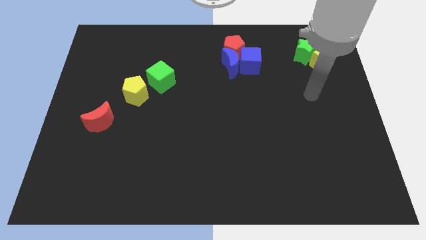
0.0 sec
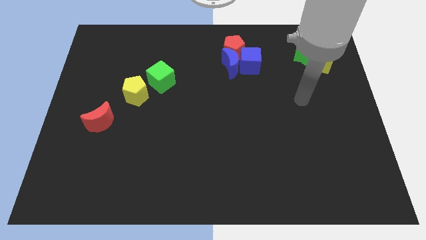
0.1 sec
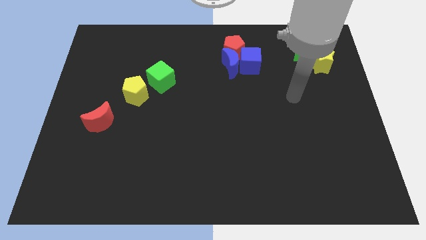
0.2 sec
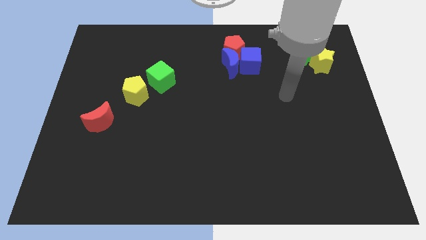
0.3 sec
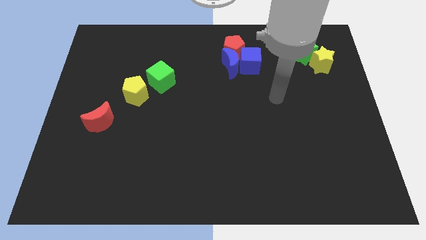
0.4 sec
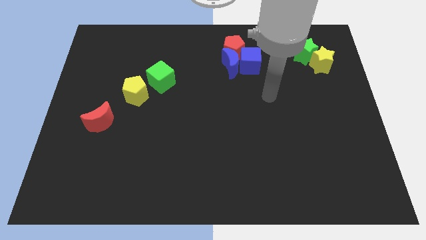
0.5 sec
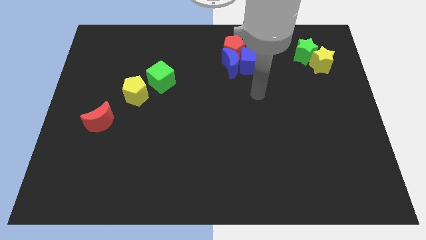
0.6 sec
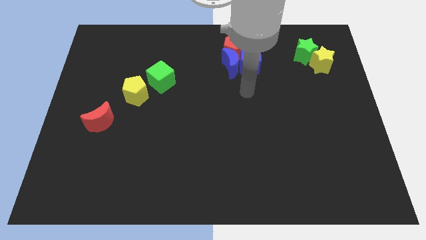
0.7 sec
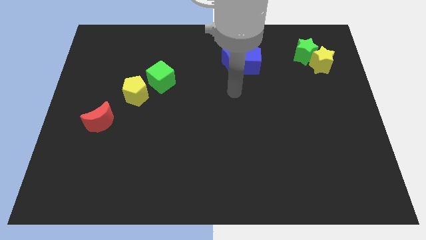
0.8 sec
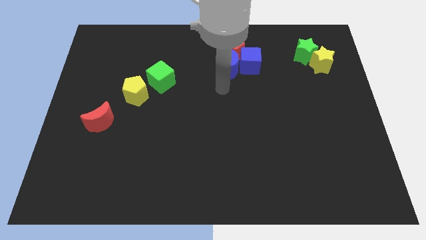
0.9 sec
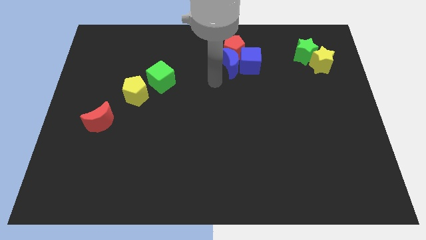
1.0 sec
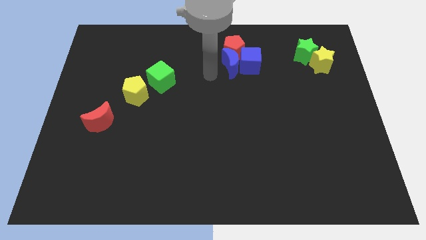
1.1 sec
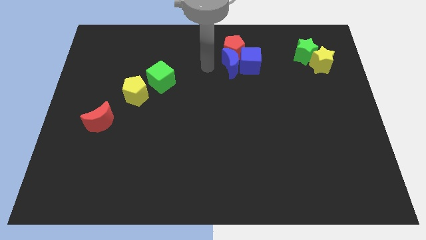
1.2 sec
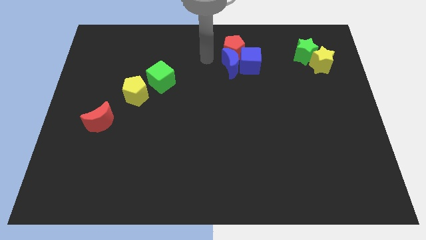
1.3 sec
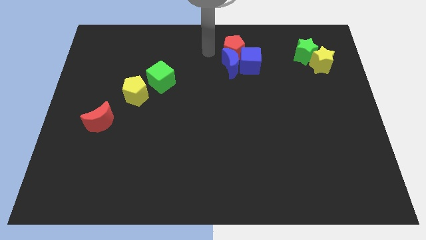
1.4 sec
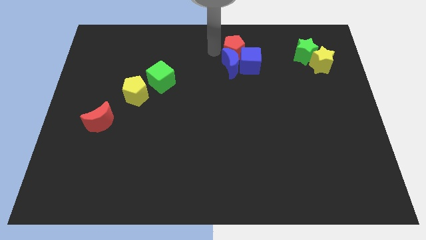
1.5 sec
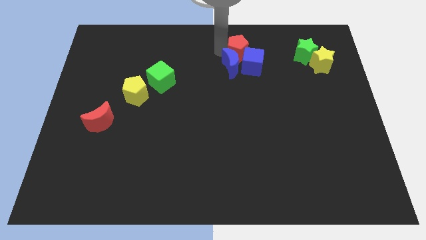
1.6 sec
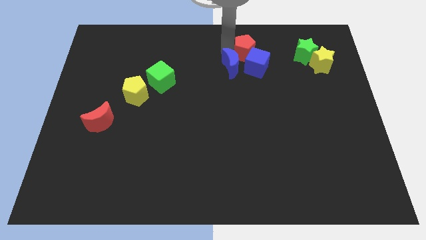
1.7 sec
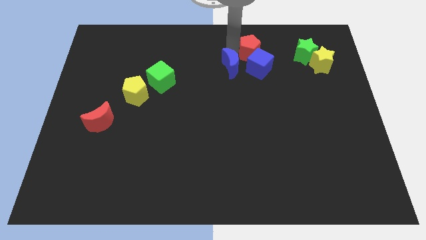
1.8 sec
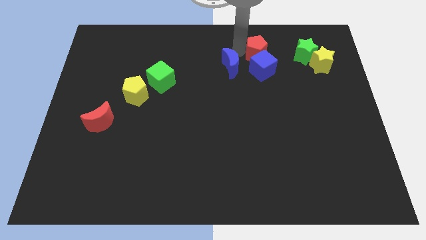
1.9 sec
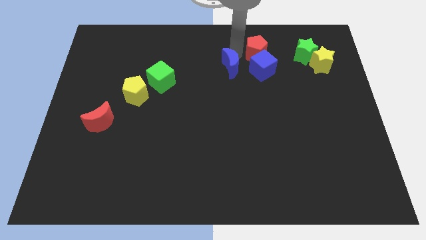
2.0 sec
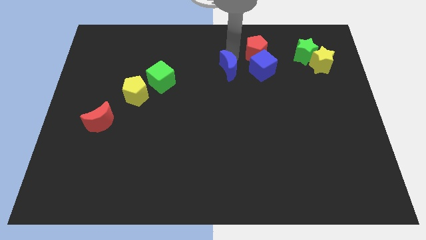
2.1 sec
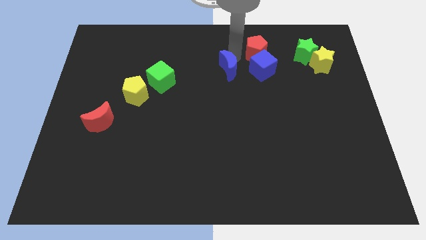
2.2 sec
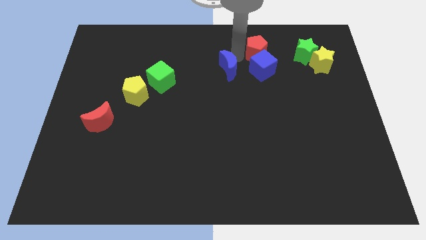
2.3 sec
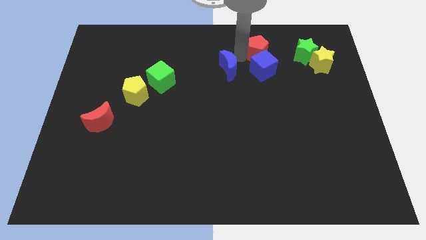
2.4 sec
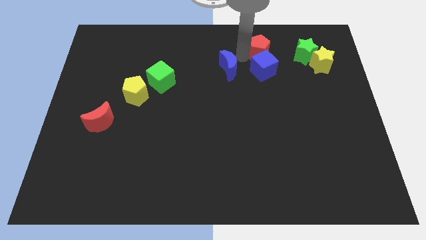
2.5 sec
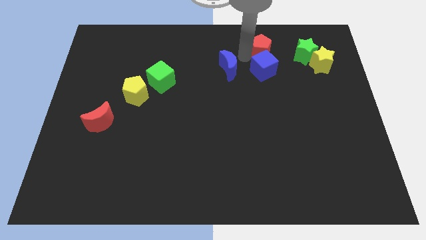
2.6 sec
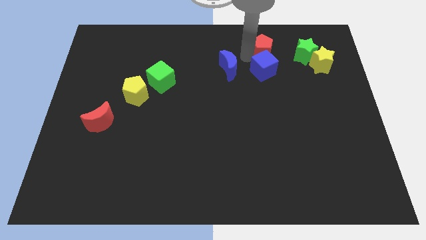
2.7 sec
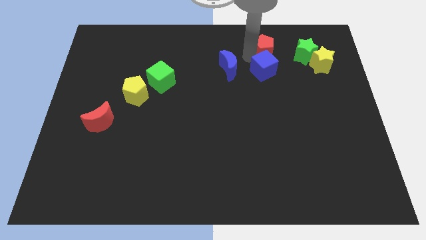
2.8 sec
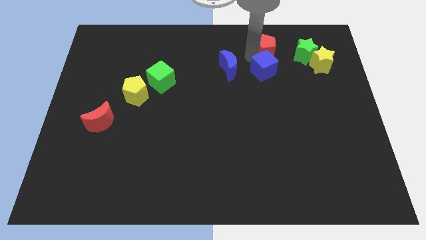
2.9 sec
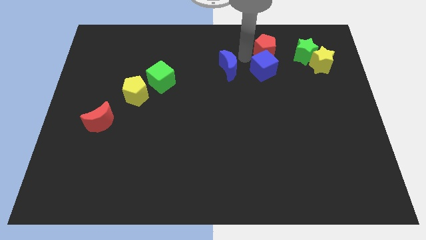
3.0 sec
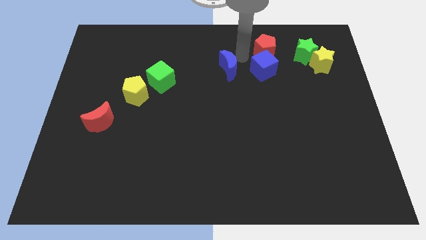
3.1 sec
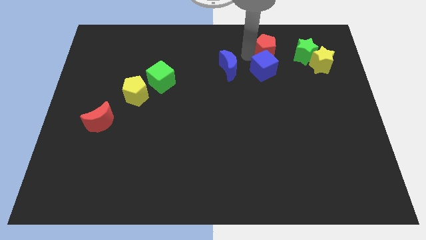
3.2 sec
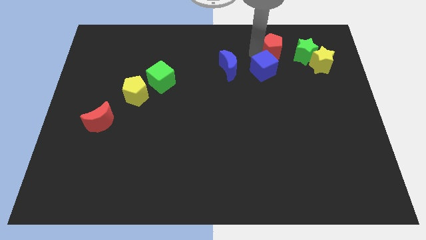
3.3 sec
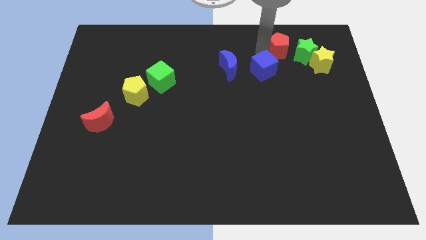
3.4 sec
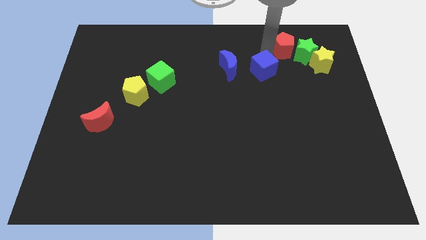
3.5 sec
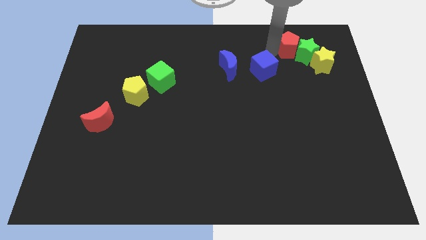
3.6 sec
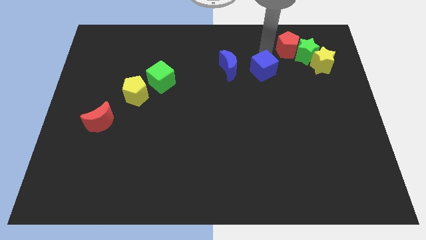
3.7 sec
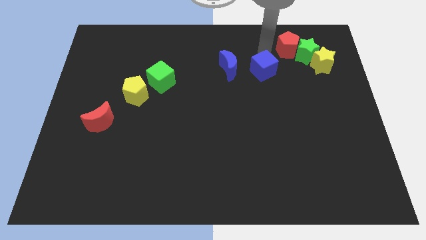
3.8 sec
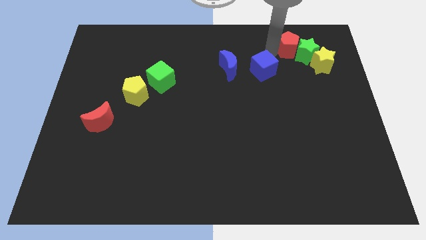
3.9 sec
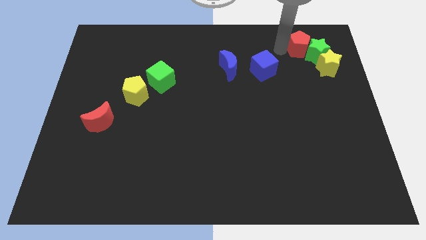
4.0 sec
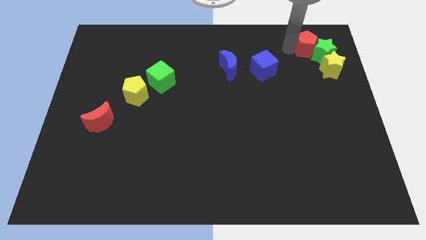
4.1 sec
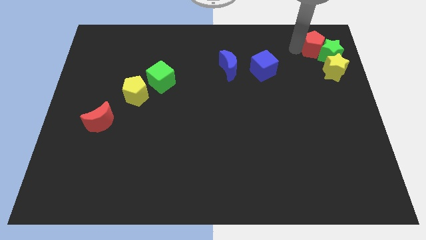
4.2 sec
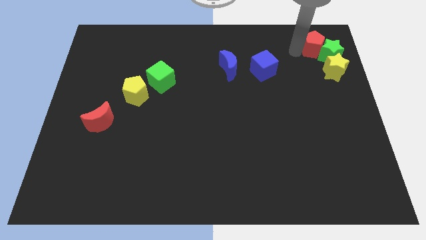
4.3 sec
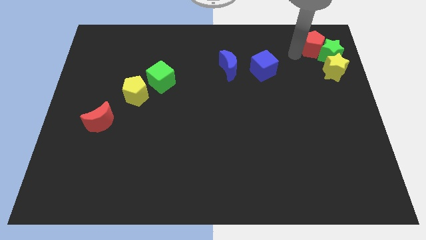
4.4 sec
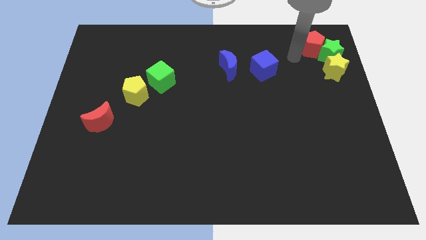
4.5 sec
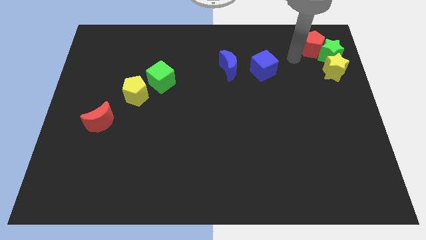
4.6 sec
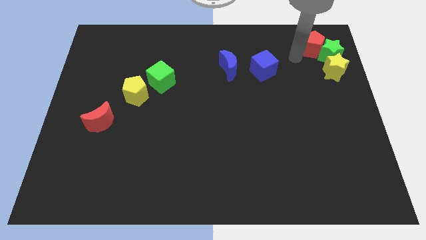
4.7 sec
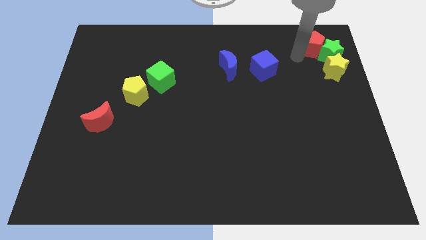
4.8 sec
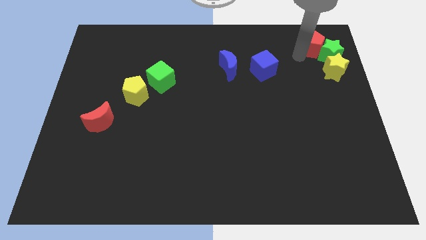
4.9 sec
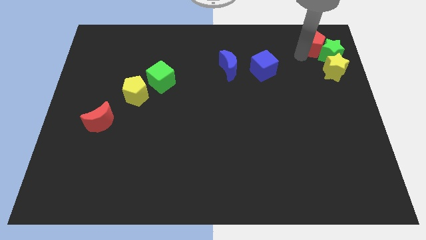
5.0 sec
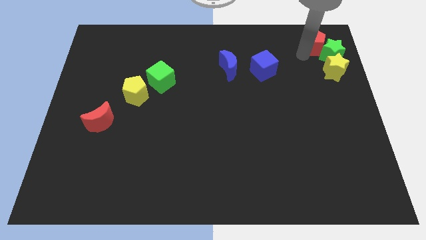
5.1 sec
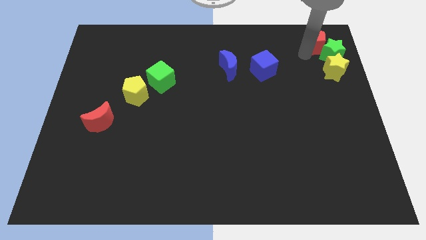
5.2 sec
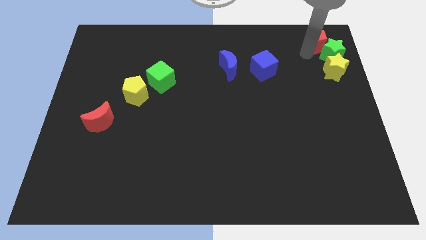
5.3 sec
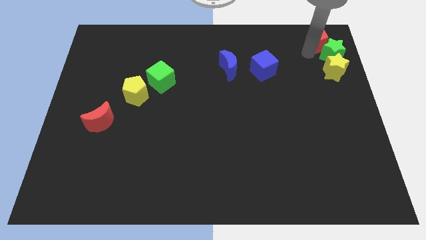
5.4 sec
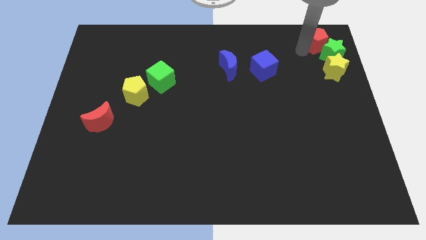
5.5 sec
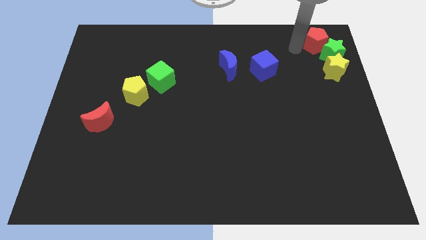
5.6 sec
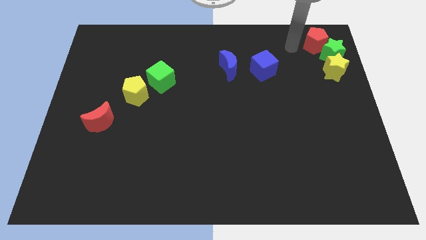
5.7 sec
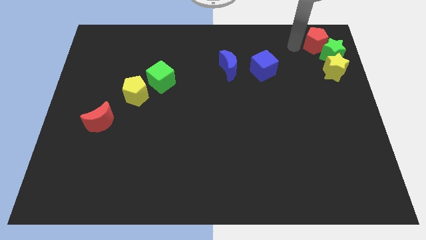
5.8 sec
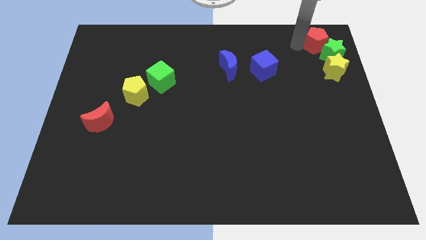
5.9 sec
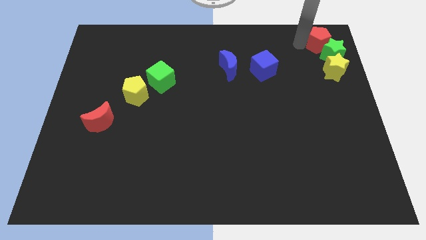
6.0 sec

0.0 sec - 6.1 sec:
put the red pentagon to the top right of the board

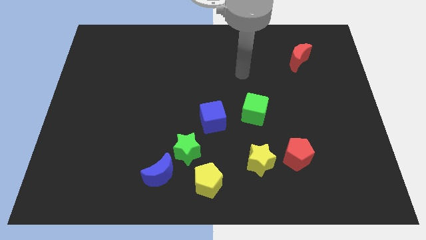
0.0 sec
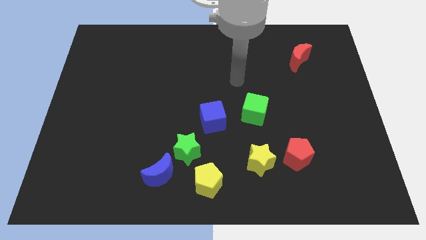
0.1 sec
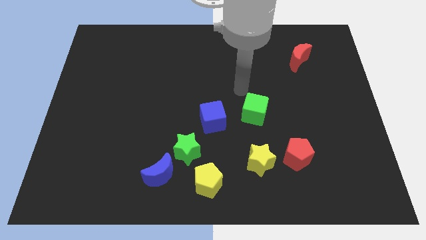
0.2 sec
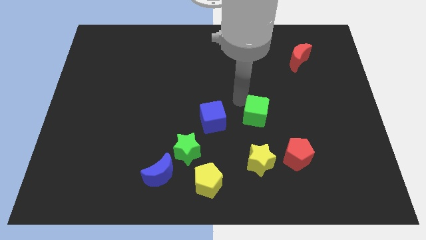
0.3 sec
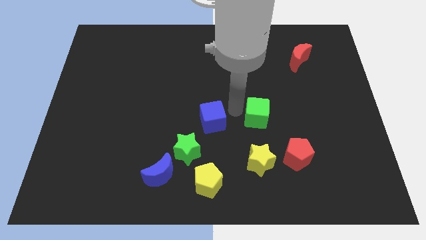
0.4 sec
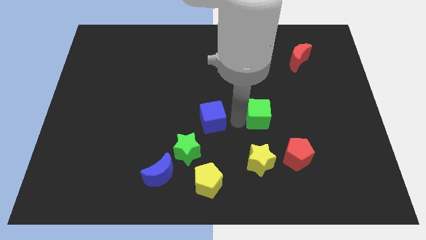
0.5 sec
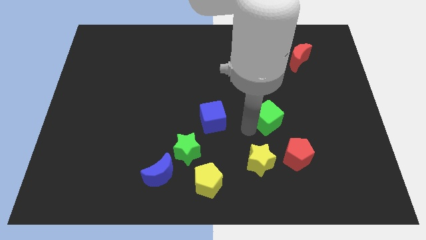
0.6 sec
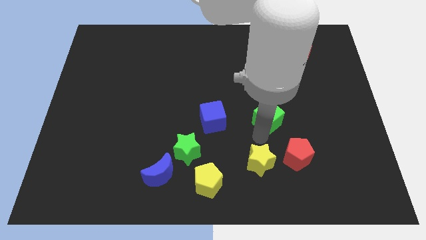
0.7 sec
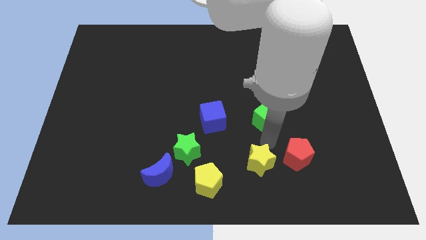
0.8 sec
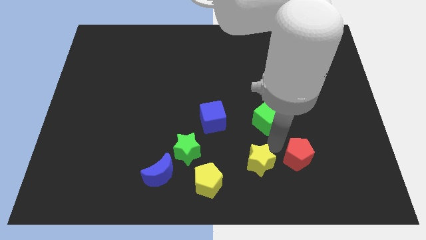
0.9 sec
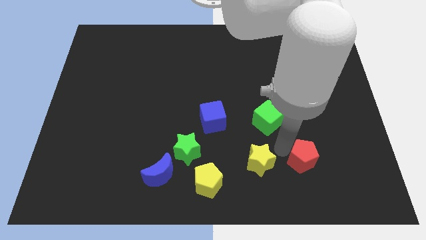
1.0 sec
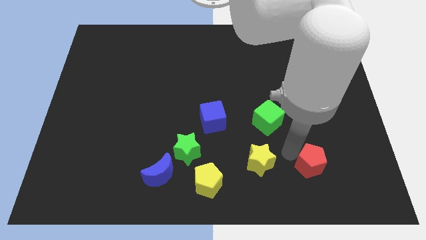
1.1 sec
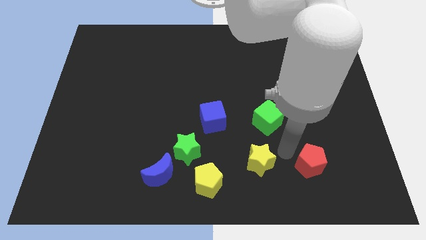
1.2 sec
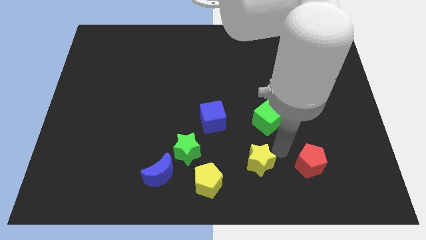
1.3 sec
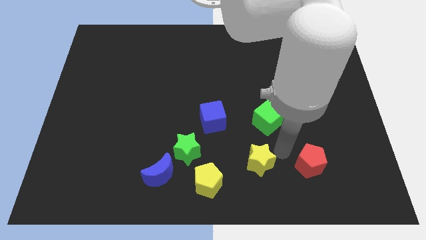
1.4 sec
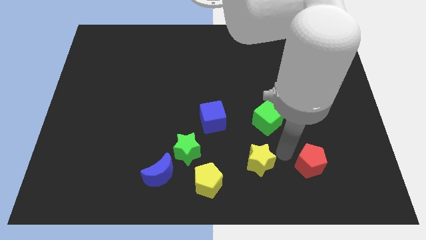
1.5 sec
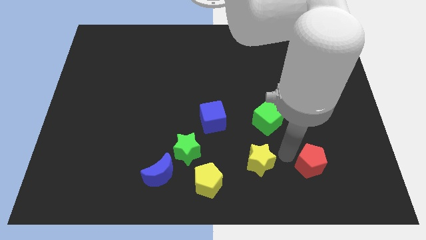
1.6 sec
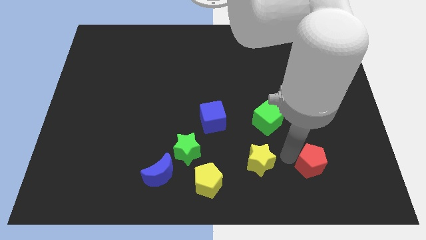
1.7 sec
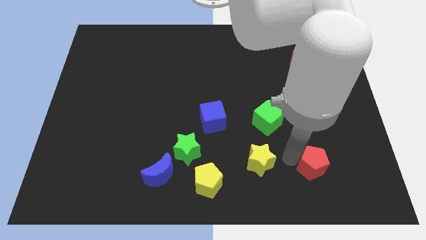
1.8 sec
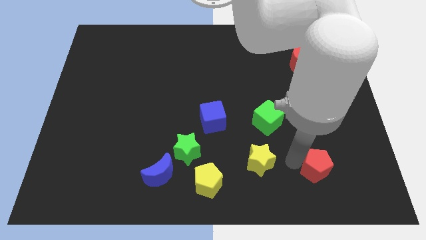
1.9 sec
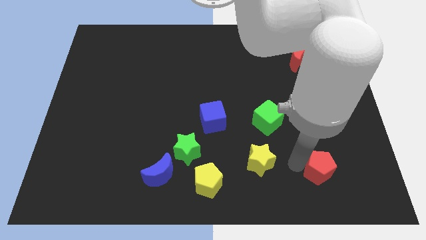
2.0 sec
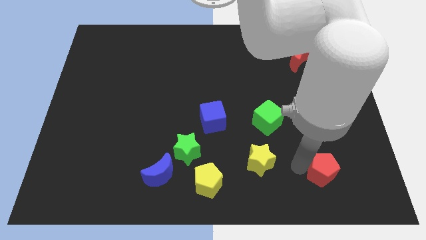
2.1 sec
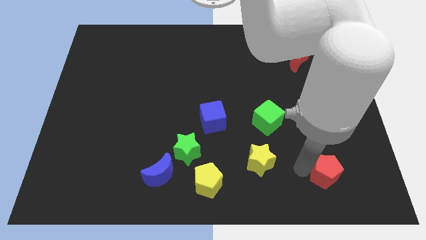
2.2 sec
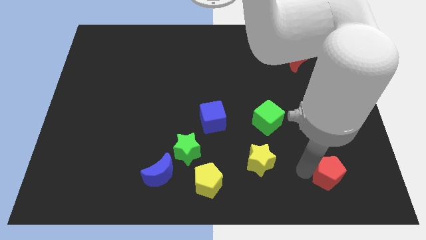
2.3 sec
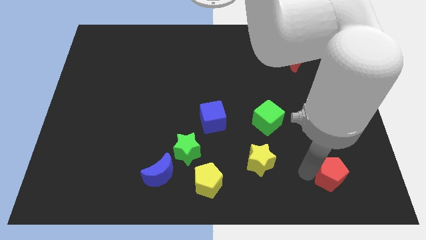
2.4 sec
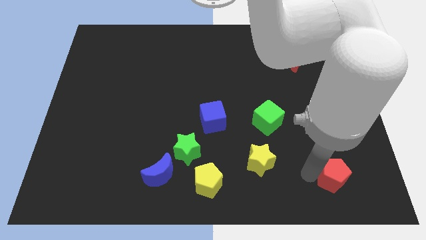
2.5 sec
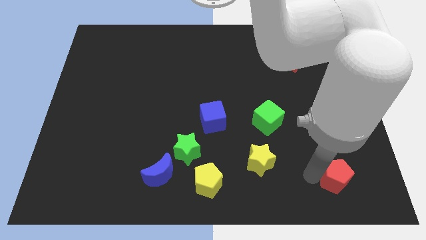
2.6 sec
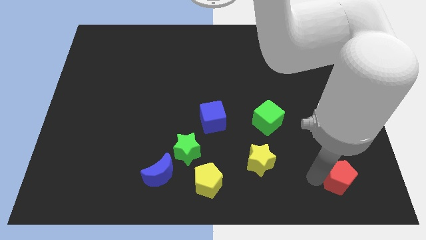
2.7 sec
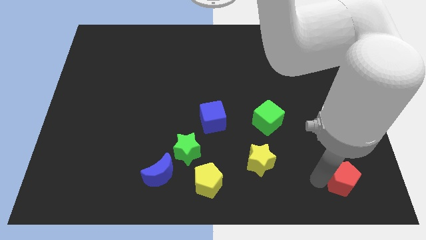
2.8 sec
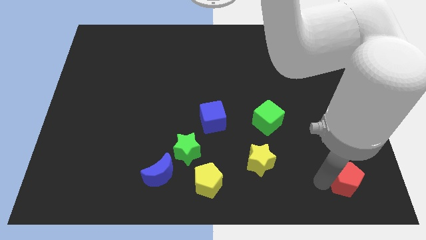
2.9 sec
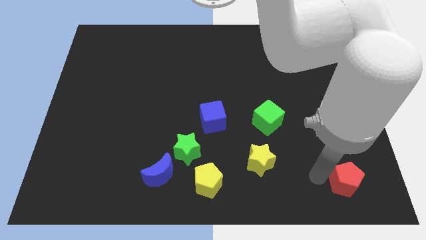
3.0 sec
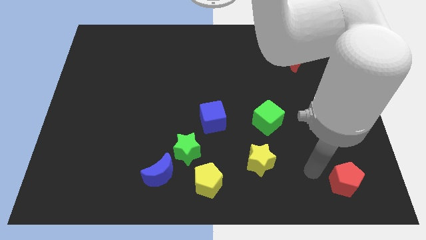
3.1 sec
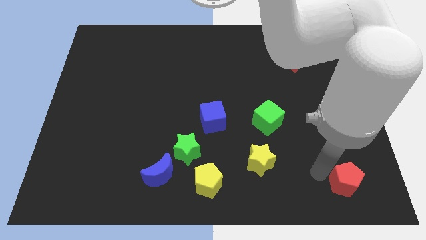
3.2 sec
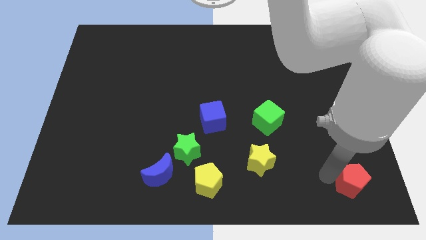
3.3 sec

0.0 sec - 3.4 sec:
push the red pentagon to the bottom right corner
